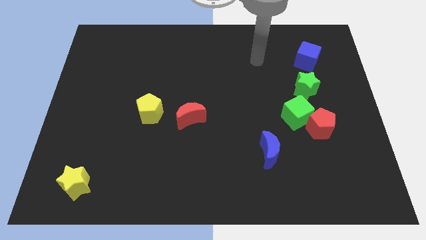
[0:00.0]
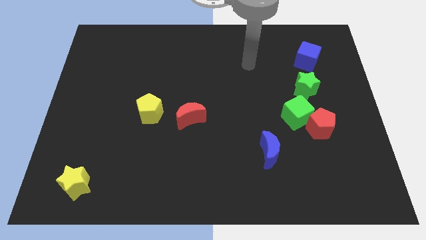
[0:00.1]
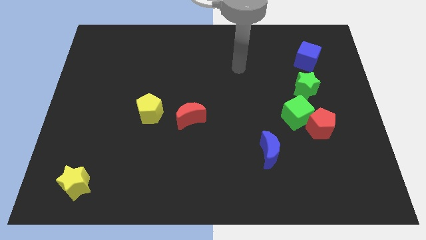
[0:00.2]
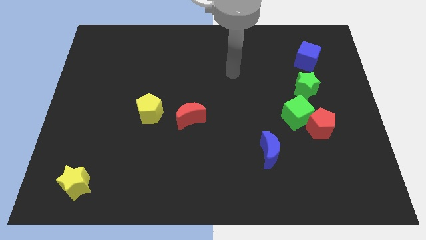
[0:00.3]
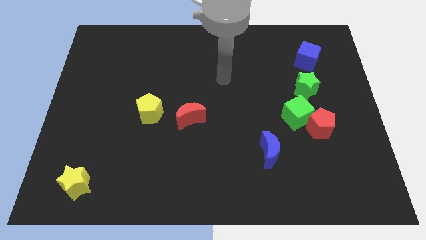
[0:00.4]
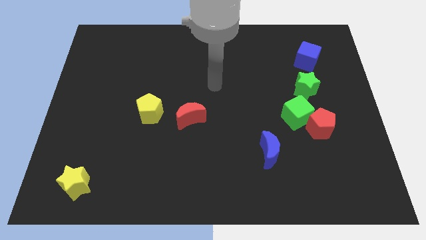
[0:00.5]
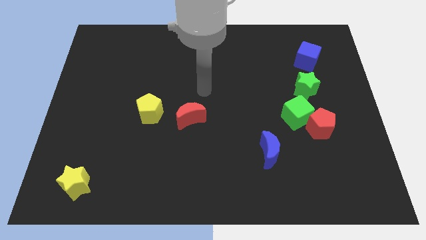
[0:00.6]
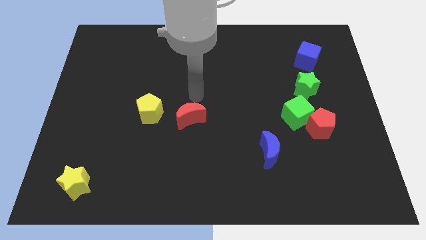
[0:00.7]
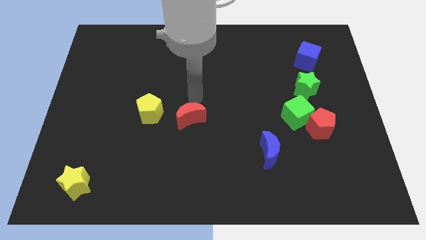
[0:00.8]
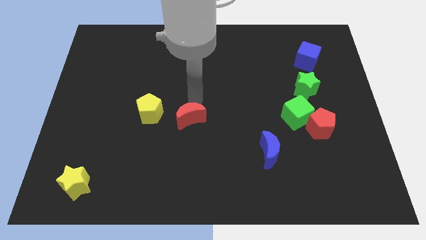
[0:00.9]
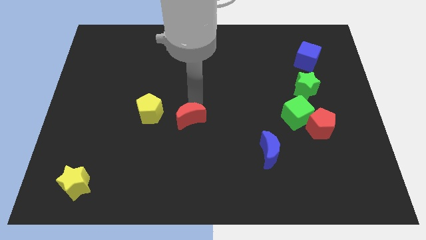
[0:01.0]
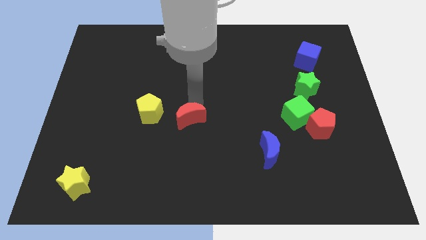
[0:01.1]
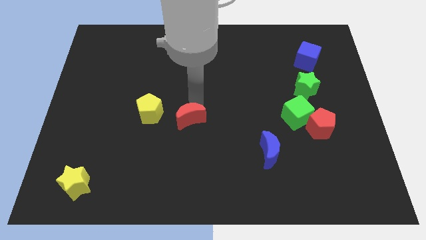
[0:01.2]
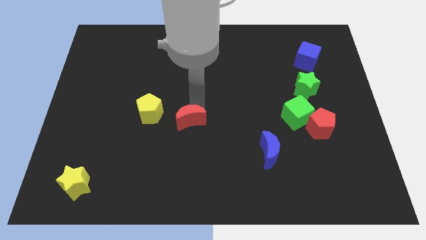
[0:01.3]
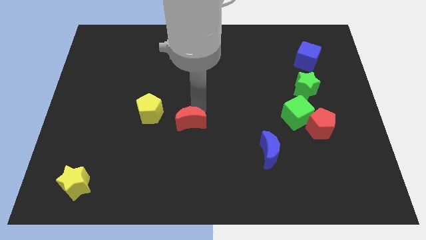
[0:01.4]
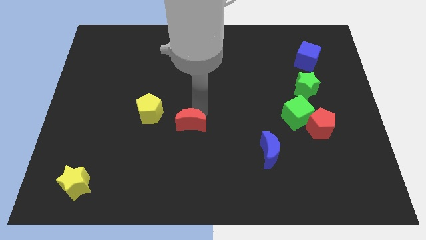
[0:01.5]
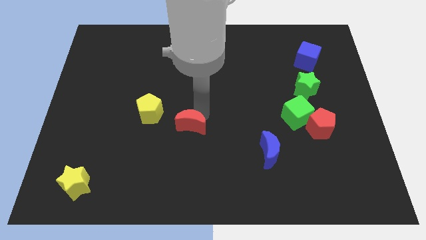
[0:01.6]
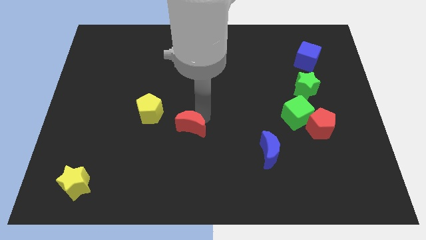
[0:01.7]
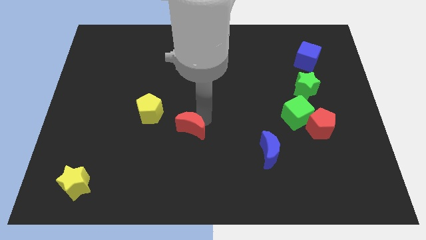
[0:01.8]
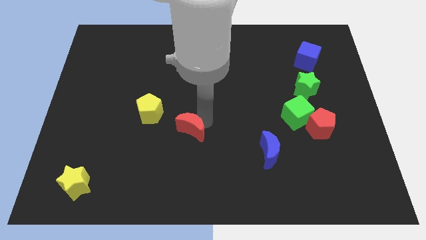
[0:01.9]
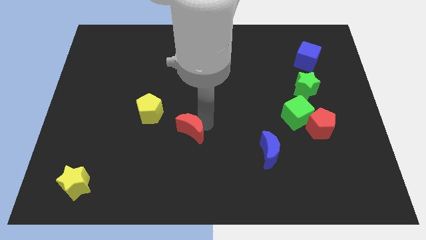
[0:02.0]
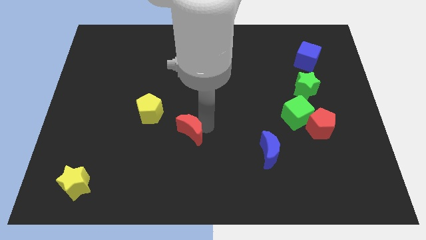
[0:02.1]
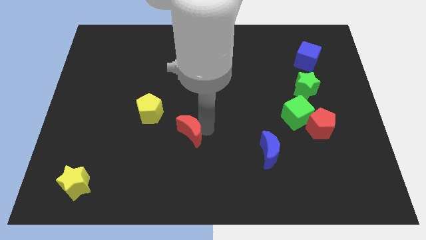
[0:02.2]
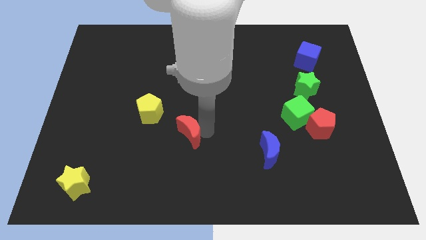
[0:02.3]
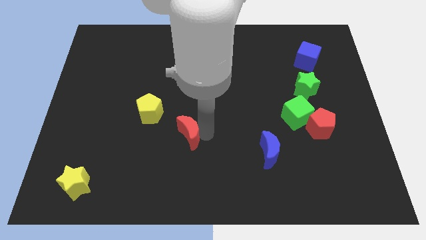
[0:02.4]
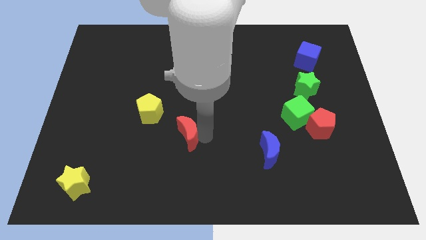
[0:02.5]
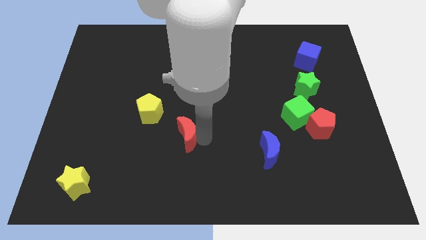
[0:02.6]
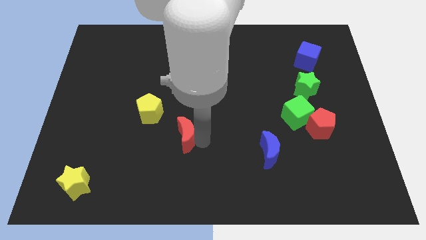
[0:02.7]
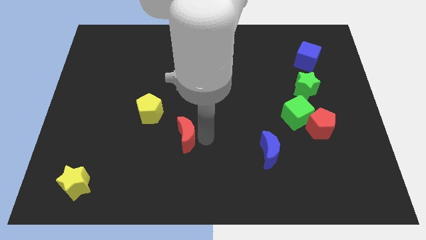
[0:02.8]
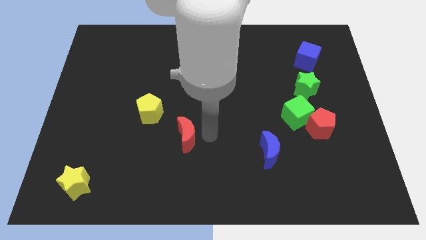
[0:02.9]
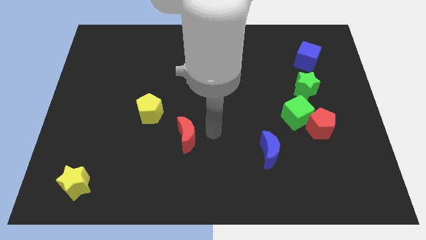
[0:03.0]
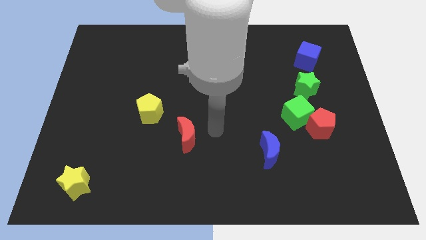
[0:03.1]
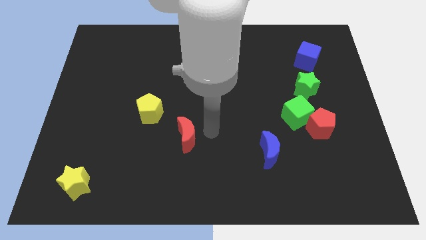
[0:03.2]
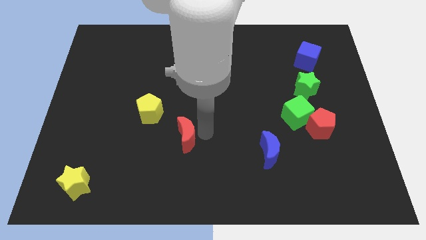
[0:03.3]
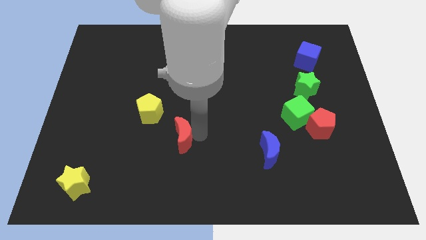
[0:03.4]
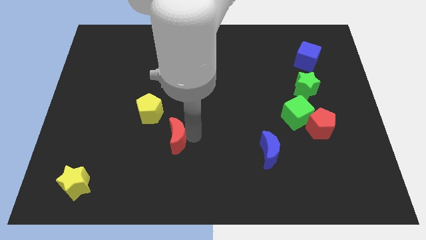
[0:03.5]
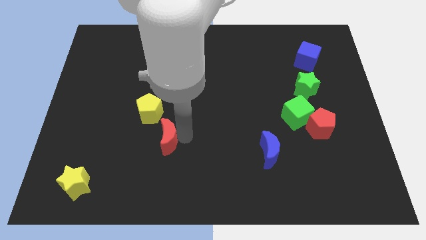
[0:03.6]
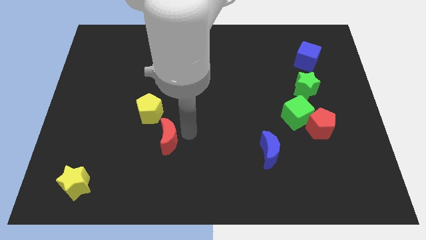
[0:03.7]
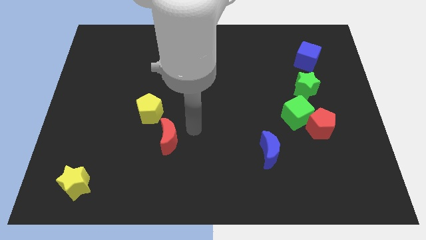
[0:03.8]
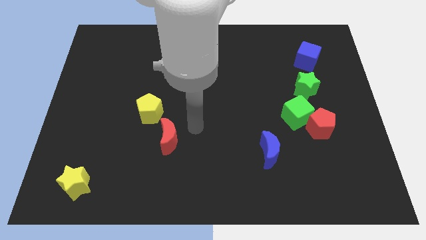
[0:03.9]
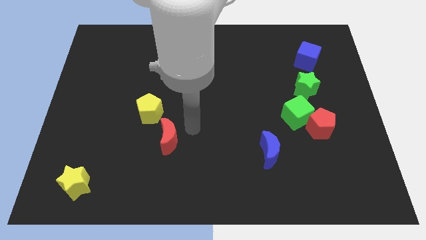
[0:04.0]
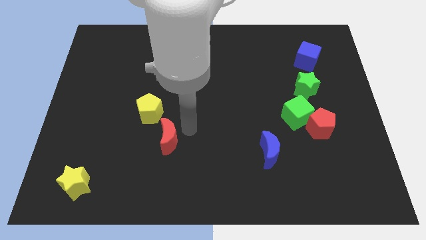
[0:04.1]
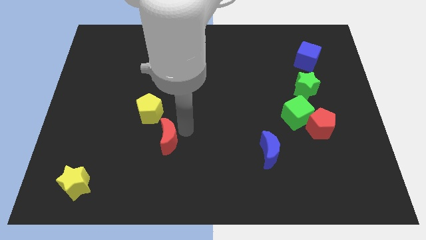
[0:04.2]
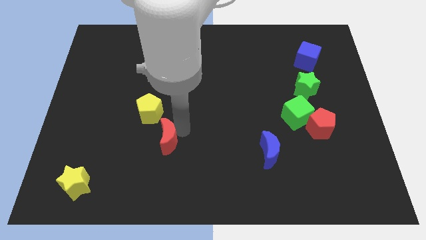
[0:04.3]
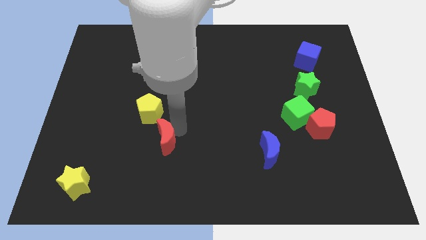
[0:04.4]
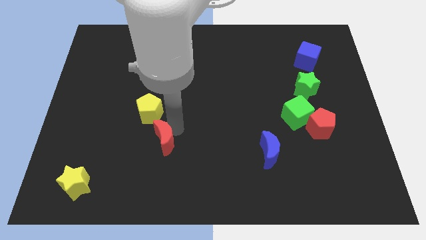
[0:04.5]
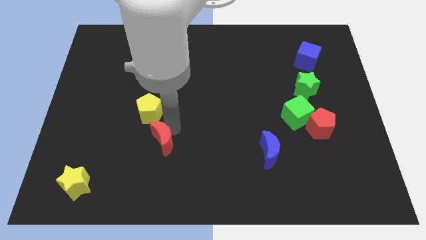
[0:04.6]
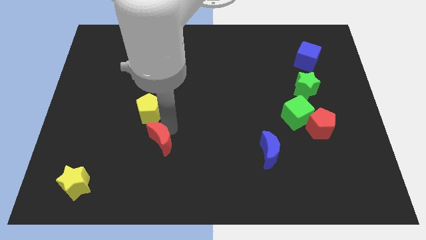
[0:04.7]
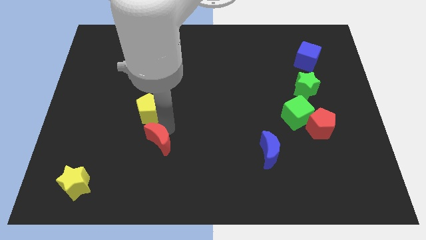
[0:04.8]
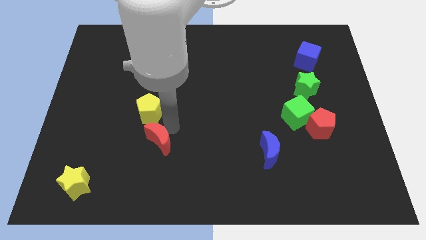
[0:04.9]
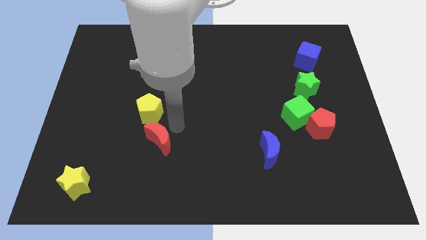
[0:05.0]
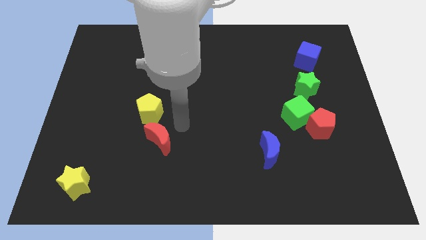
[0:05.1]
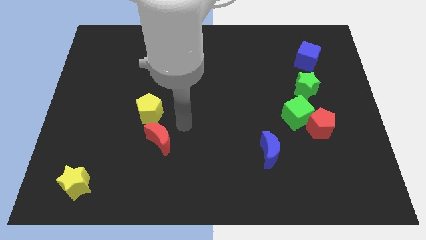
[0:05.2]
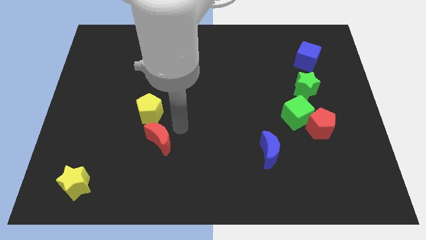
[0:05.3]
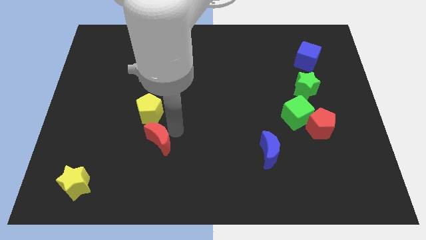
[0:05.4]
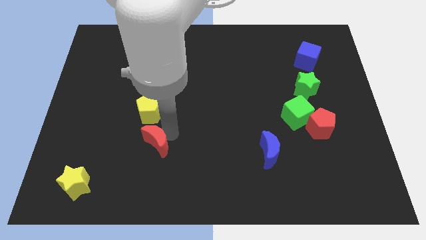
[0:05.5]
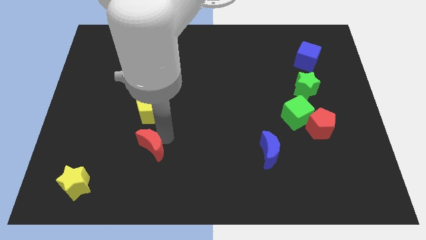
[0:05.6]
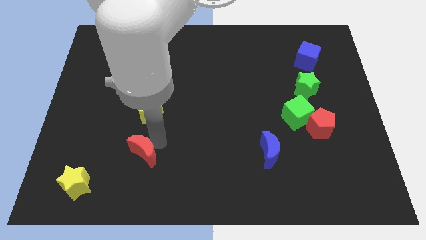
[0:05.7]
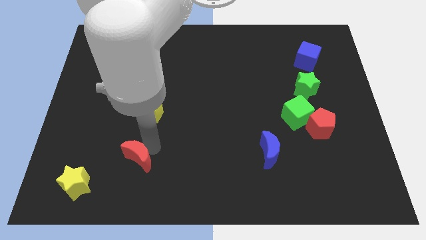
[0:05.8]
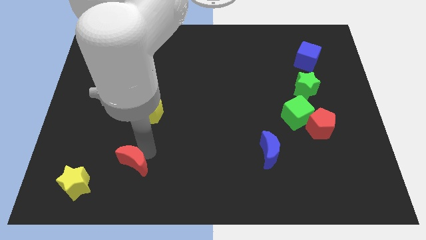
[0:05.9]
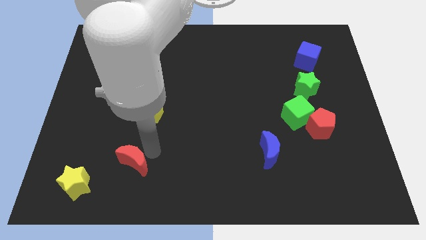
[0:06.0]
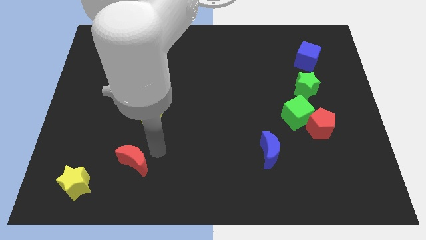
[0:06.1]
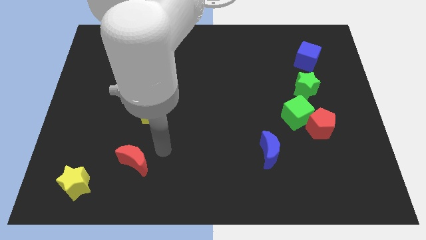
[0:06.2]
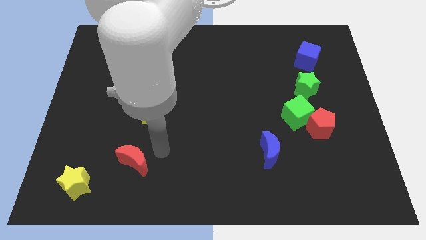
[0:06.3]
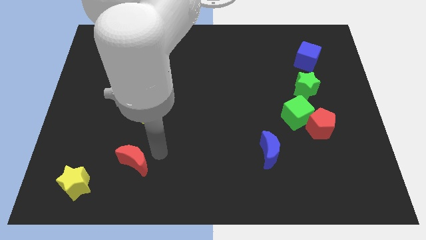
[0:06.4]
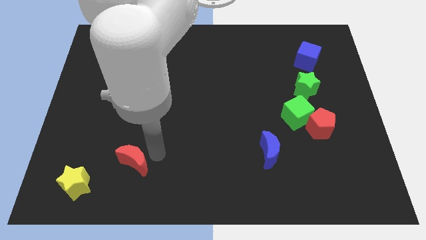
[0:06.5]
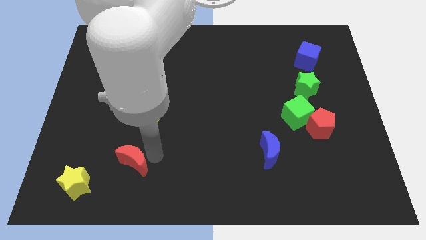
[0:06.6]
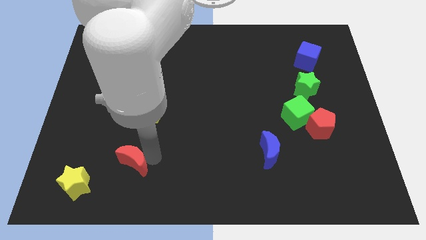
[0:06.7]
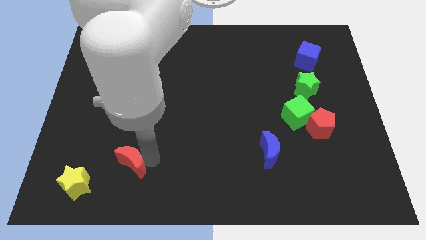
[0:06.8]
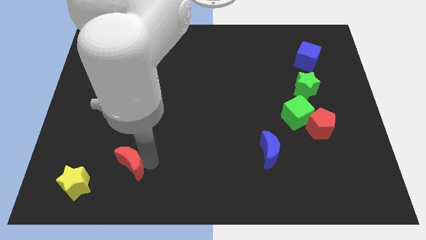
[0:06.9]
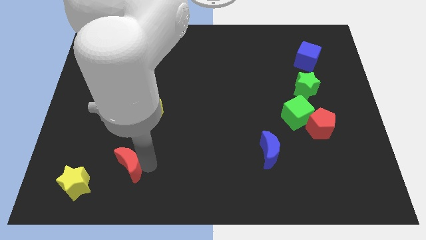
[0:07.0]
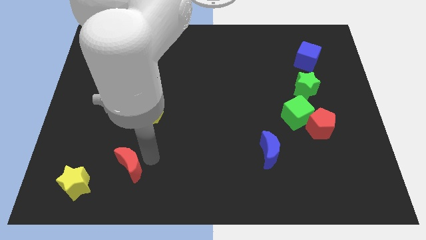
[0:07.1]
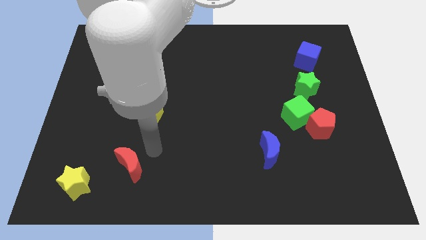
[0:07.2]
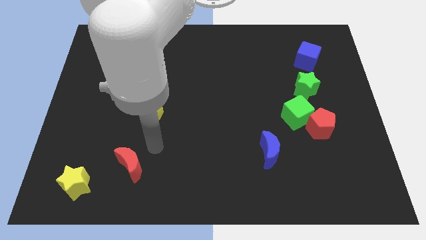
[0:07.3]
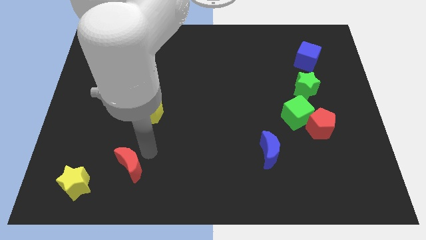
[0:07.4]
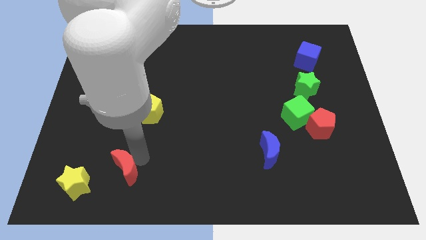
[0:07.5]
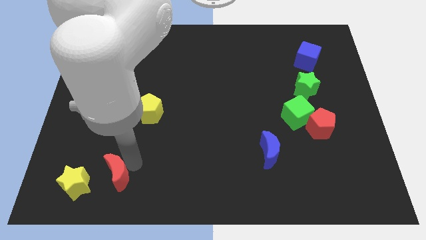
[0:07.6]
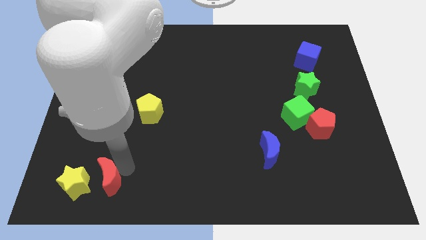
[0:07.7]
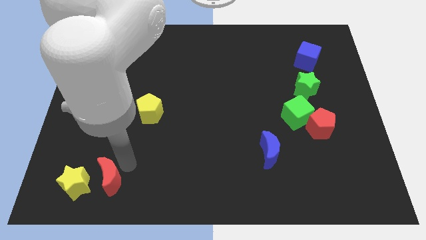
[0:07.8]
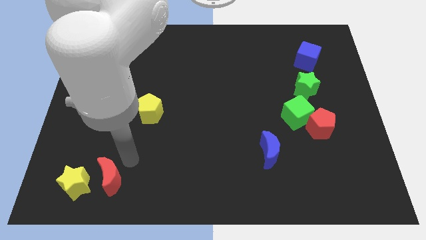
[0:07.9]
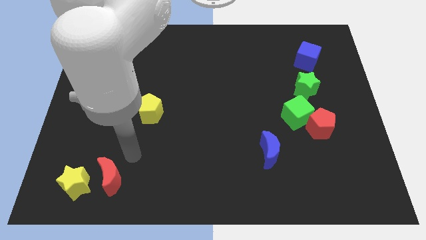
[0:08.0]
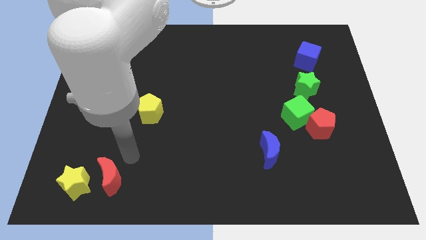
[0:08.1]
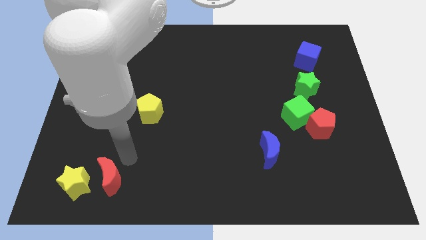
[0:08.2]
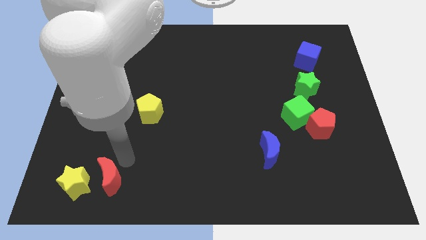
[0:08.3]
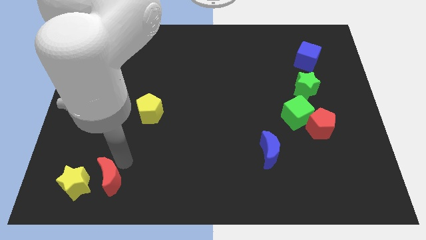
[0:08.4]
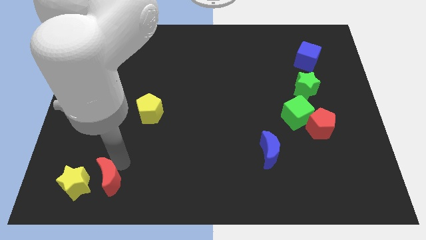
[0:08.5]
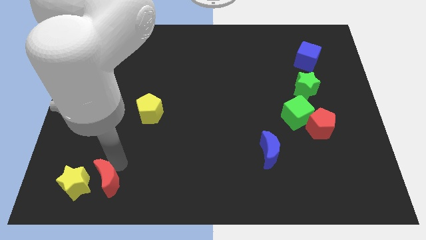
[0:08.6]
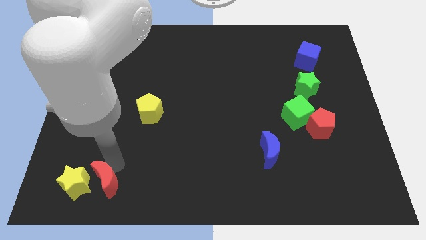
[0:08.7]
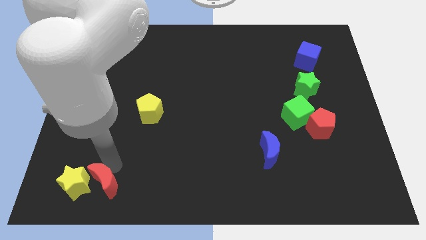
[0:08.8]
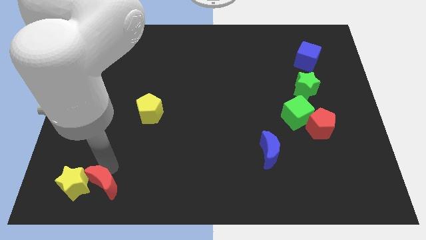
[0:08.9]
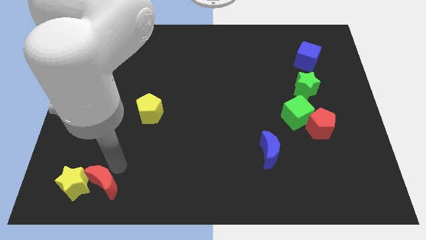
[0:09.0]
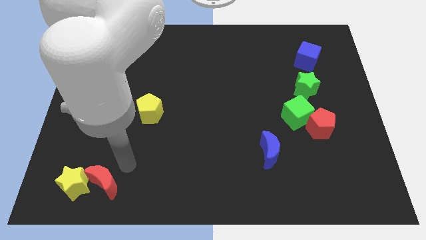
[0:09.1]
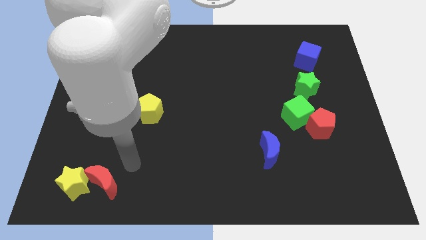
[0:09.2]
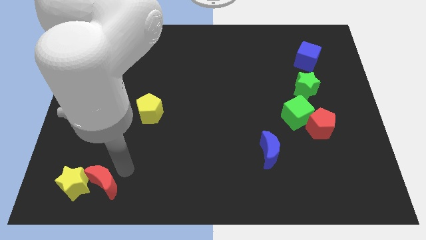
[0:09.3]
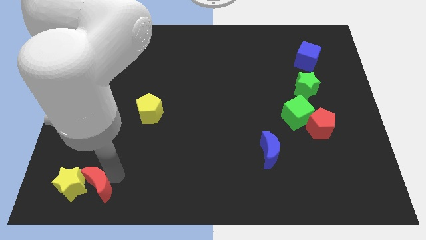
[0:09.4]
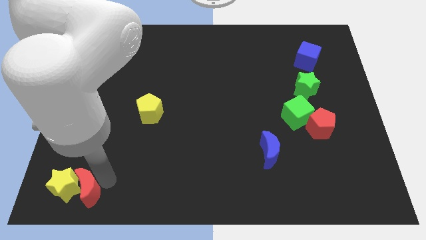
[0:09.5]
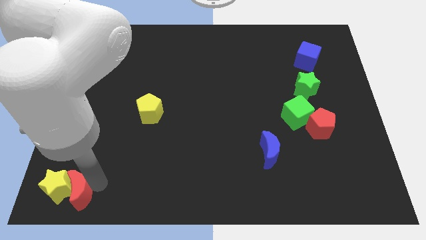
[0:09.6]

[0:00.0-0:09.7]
put the red moon to the lower left corner
